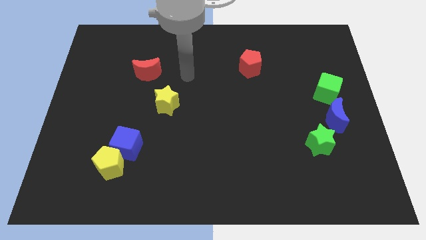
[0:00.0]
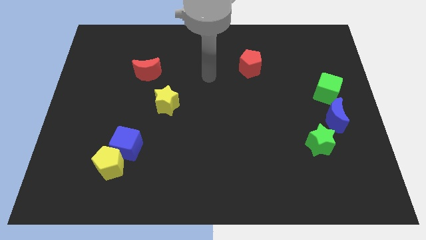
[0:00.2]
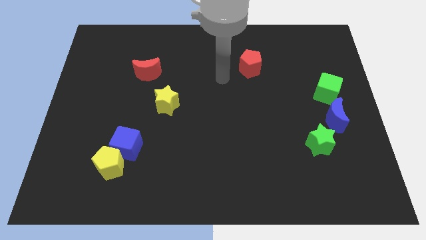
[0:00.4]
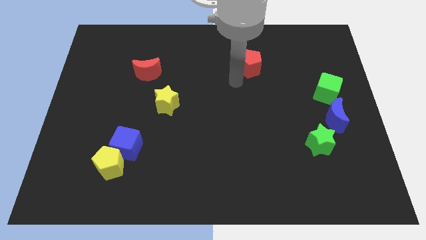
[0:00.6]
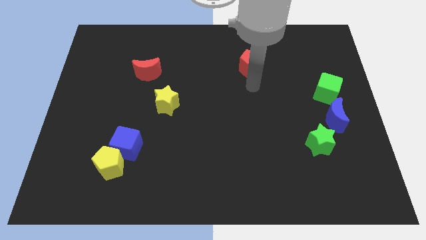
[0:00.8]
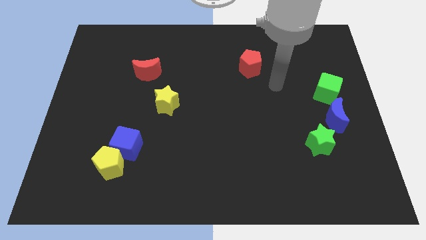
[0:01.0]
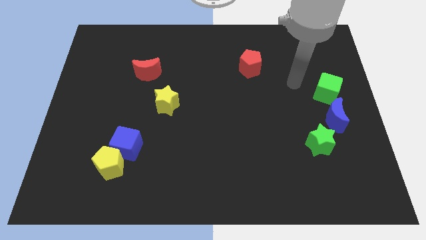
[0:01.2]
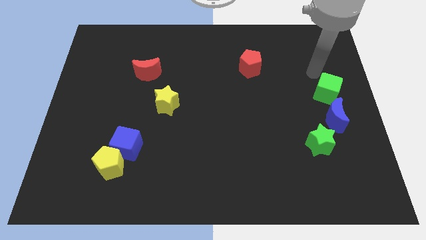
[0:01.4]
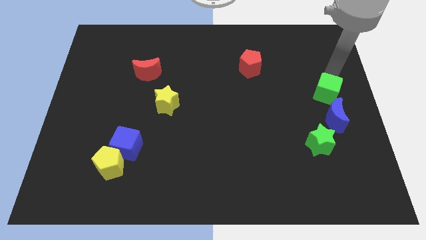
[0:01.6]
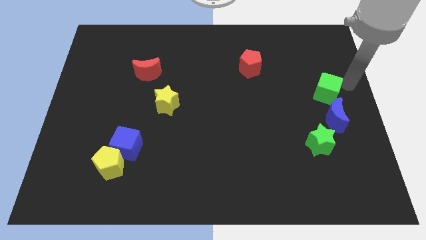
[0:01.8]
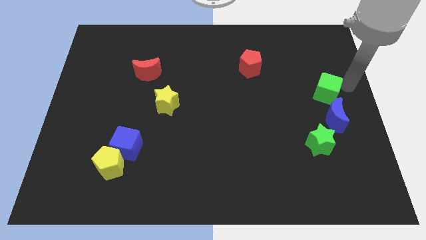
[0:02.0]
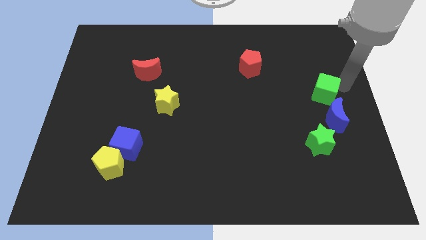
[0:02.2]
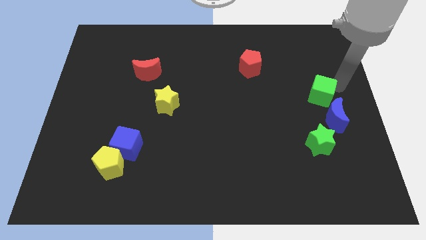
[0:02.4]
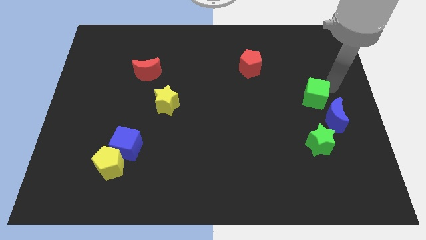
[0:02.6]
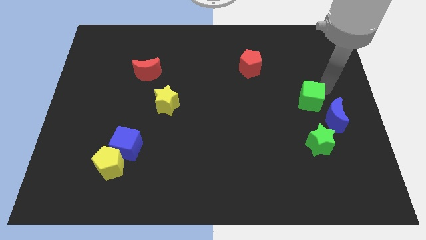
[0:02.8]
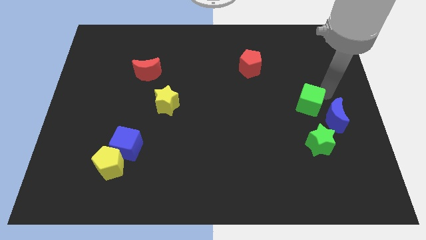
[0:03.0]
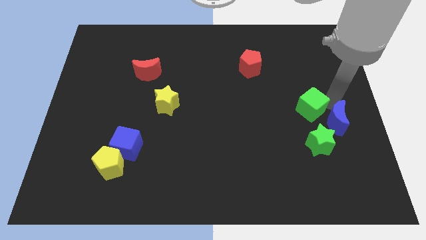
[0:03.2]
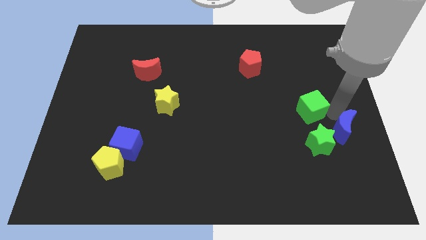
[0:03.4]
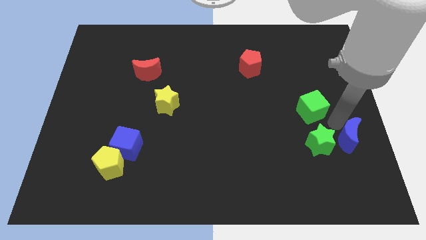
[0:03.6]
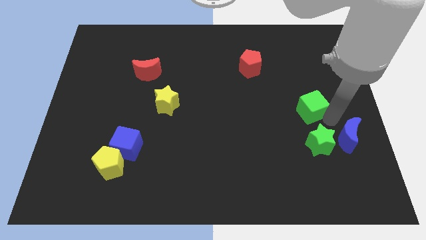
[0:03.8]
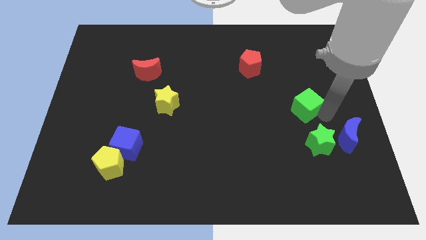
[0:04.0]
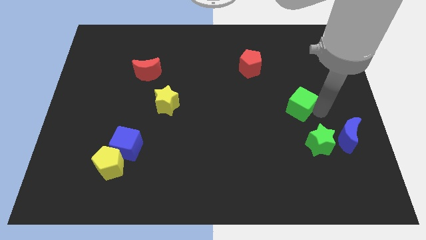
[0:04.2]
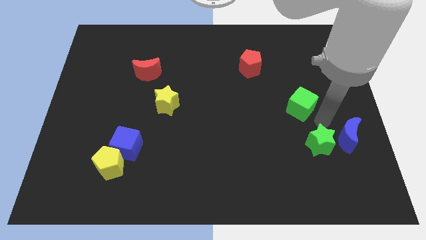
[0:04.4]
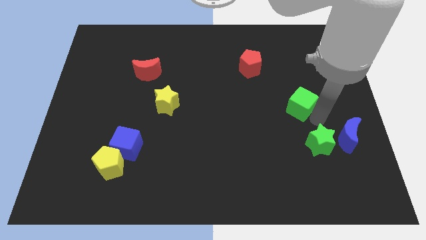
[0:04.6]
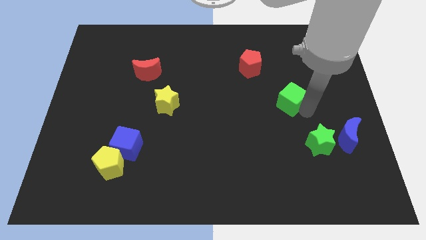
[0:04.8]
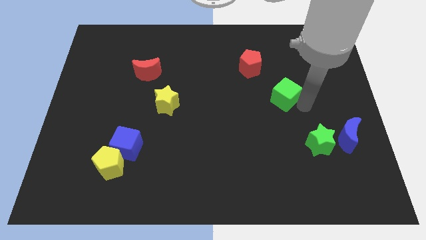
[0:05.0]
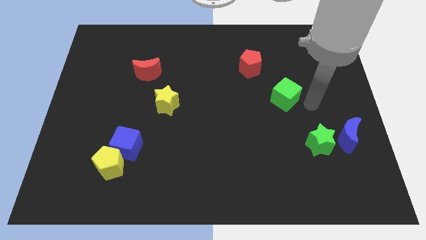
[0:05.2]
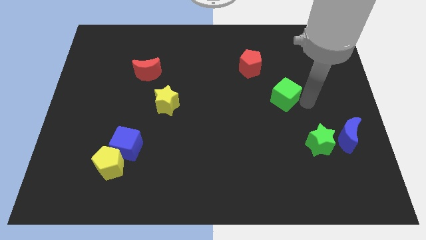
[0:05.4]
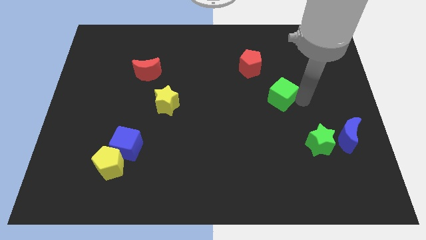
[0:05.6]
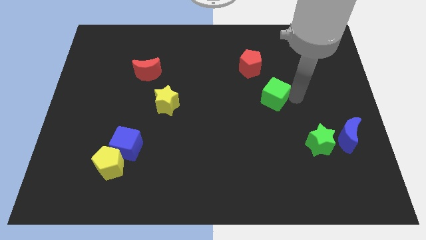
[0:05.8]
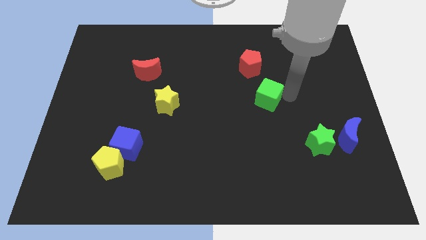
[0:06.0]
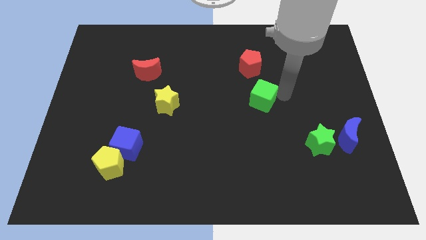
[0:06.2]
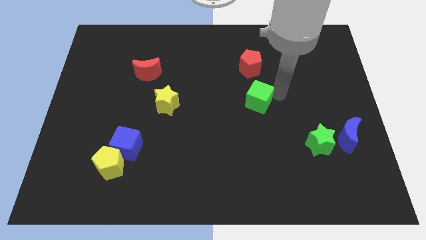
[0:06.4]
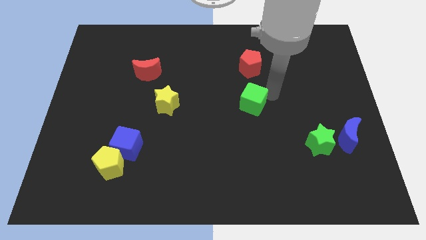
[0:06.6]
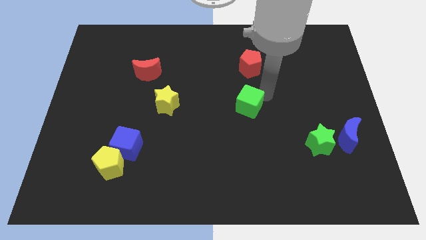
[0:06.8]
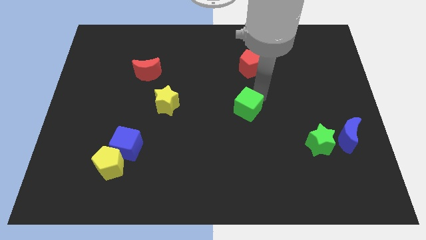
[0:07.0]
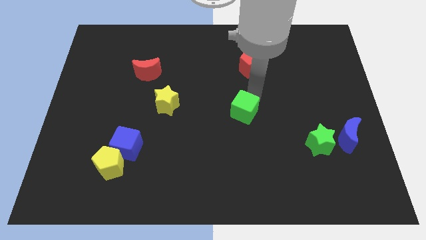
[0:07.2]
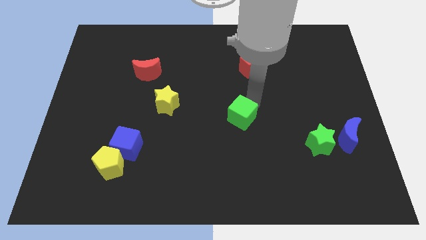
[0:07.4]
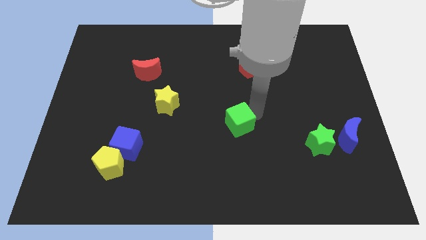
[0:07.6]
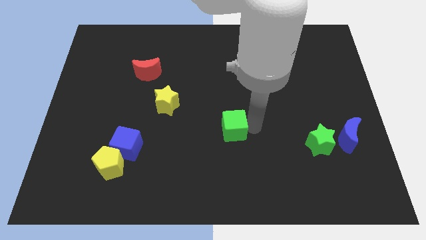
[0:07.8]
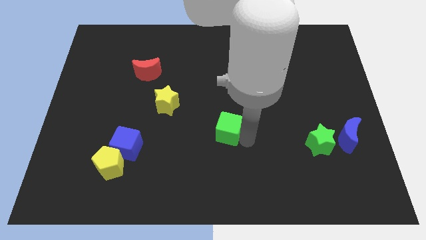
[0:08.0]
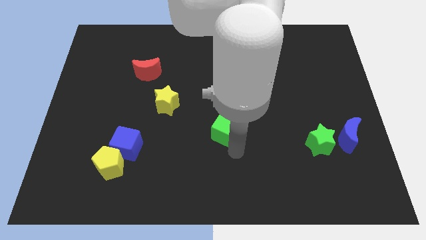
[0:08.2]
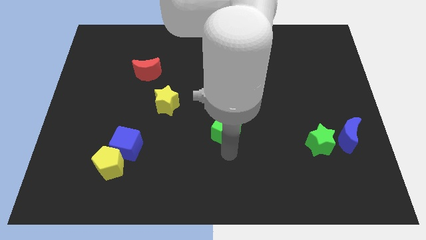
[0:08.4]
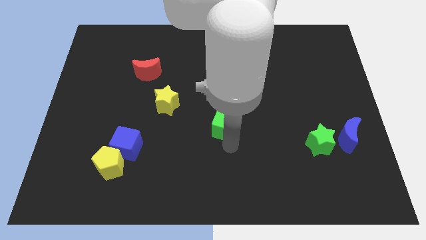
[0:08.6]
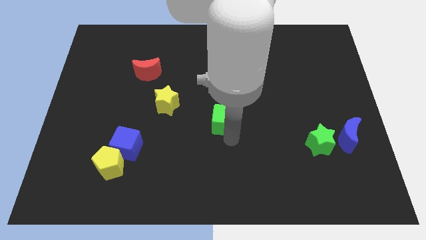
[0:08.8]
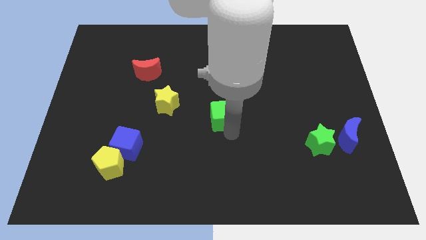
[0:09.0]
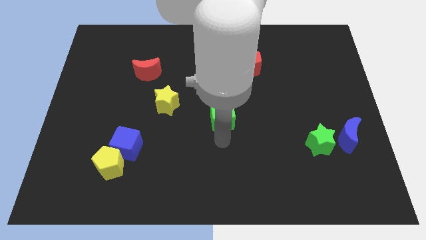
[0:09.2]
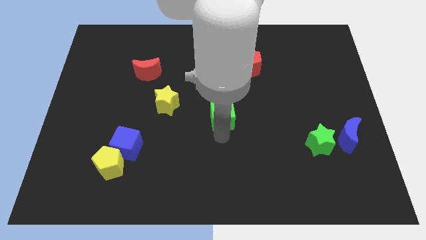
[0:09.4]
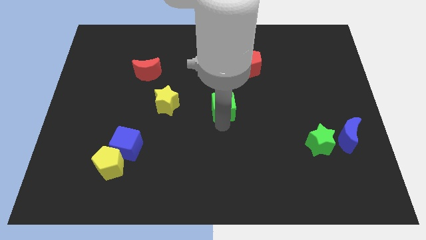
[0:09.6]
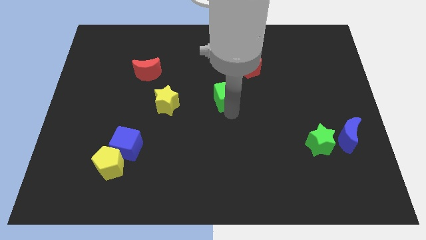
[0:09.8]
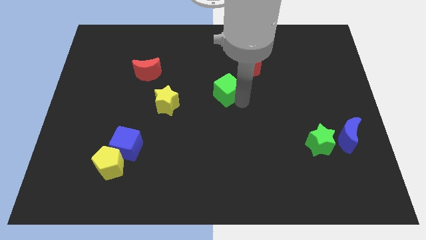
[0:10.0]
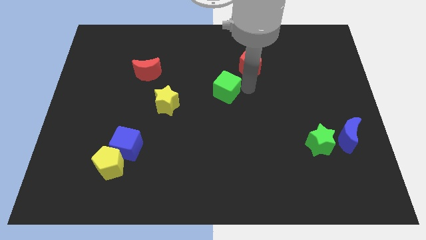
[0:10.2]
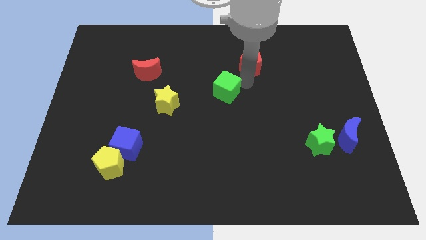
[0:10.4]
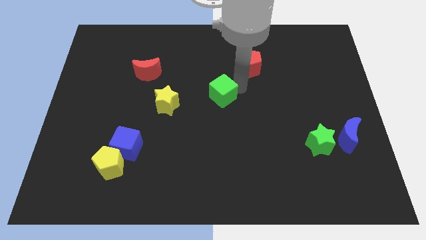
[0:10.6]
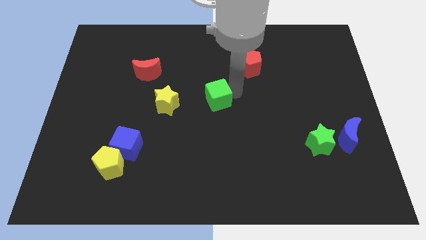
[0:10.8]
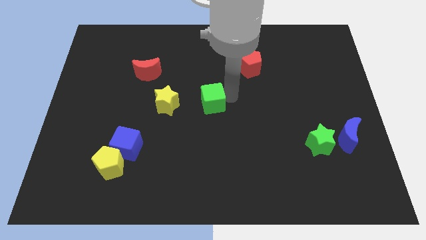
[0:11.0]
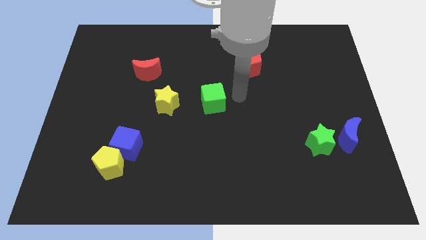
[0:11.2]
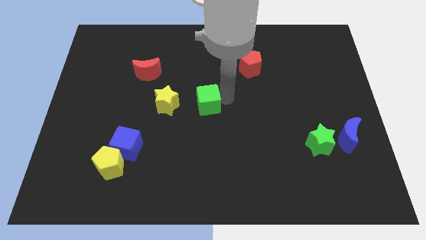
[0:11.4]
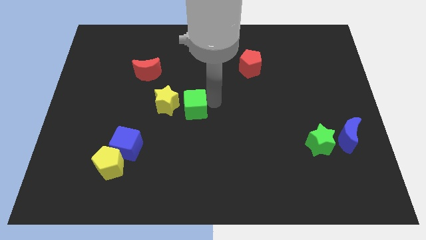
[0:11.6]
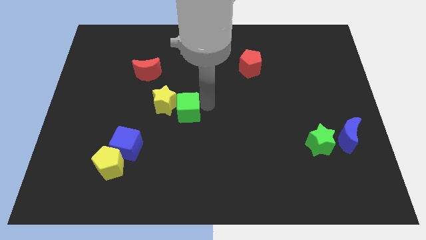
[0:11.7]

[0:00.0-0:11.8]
put the green cube to the yellow star

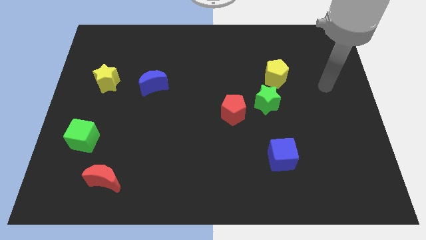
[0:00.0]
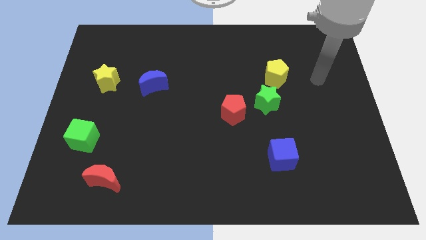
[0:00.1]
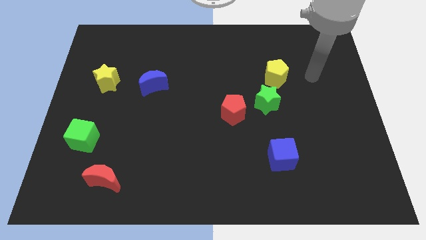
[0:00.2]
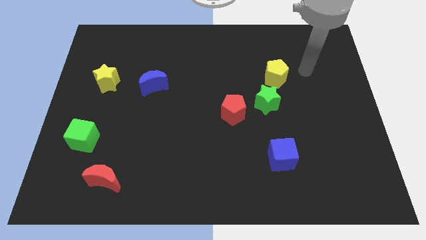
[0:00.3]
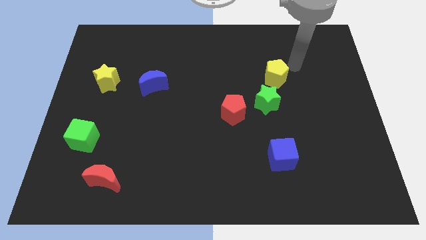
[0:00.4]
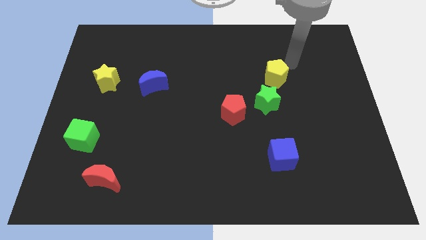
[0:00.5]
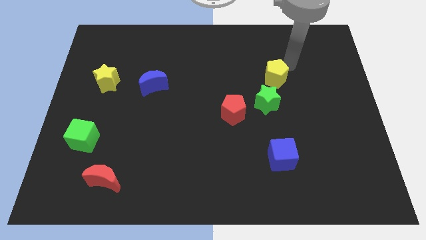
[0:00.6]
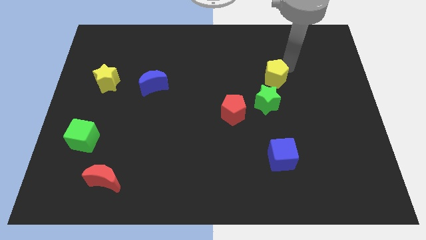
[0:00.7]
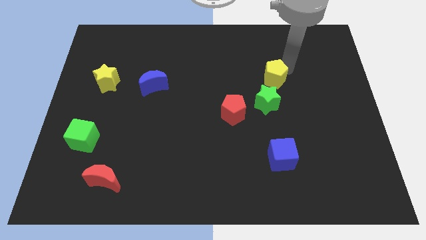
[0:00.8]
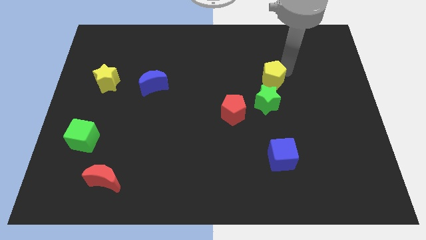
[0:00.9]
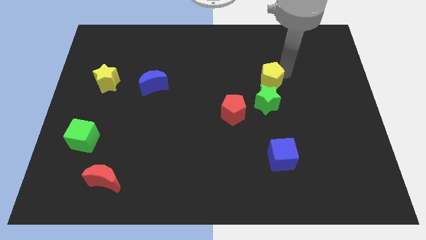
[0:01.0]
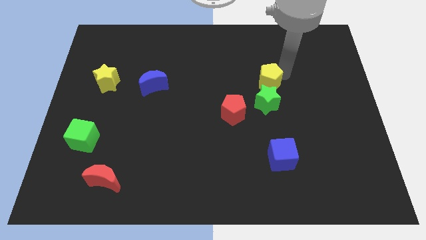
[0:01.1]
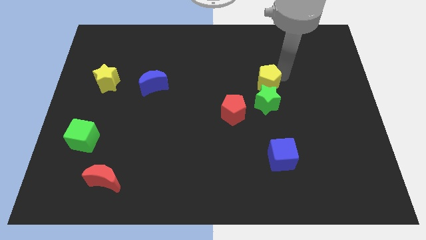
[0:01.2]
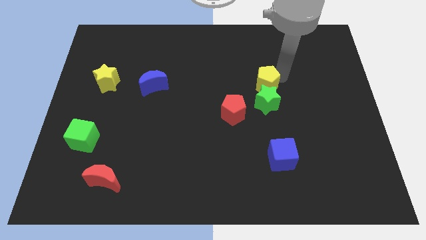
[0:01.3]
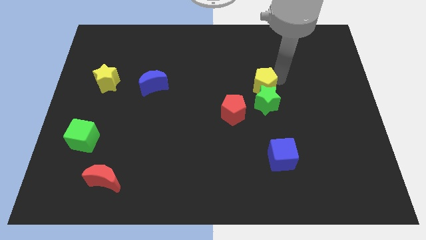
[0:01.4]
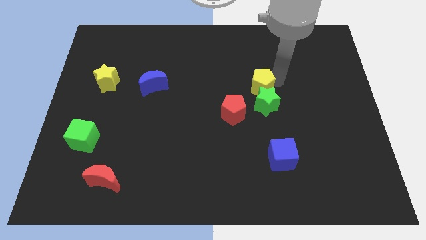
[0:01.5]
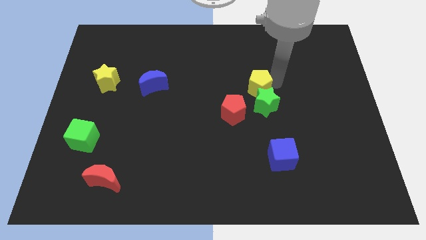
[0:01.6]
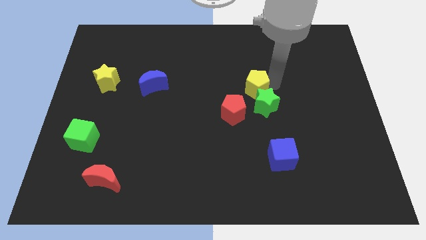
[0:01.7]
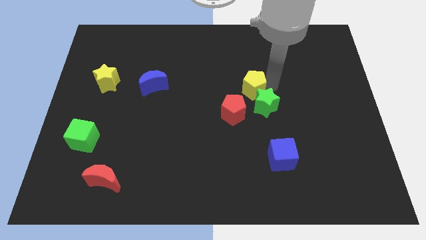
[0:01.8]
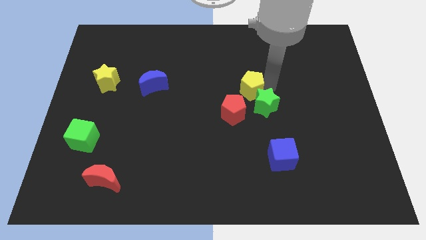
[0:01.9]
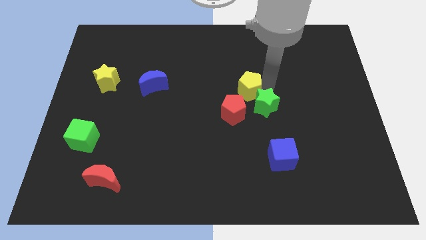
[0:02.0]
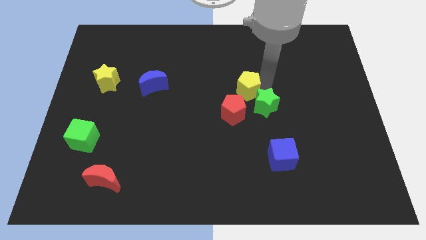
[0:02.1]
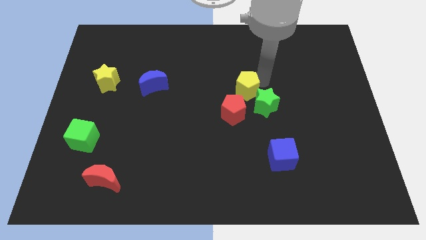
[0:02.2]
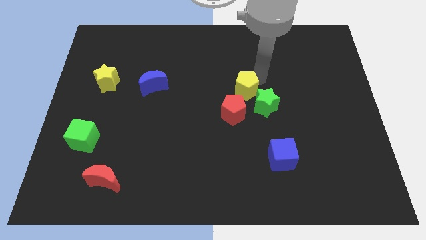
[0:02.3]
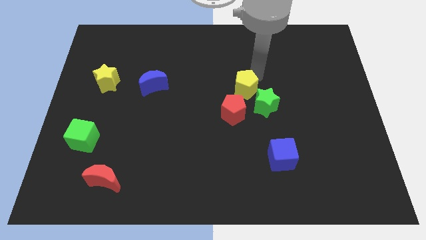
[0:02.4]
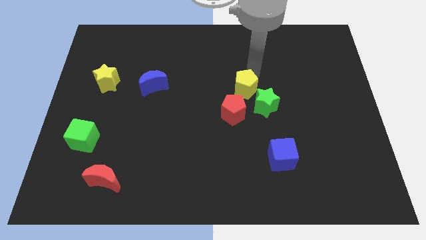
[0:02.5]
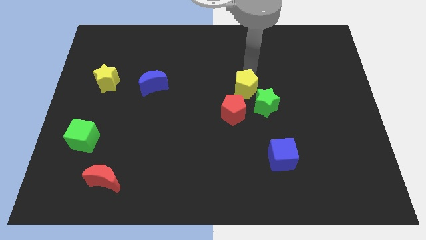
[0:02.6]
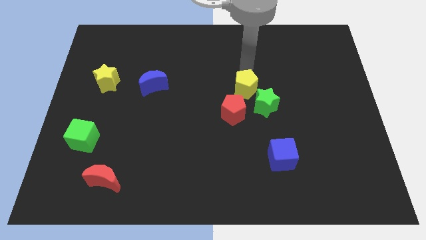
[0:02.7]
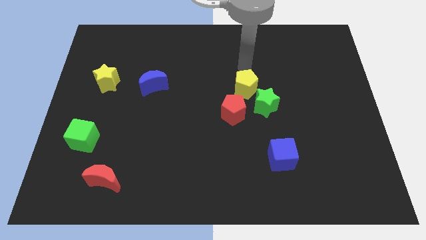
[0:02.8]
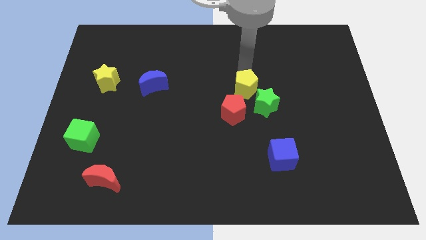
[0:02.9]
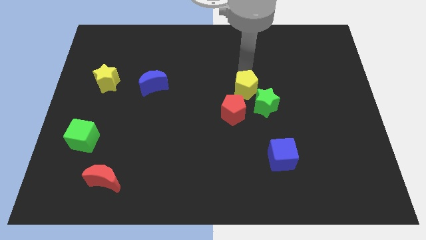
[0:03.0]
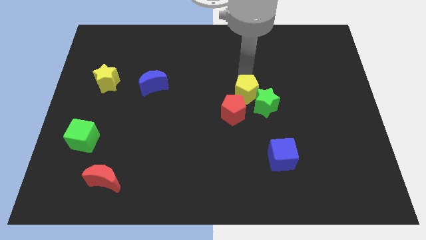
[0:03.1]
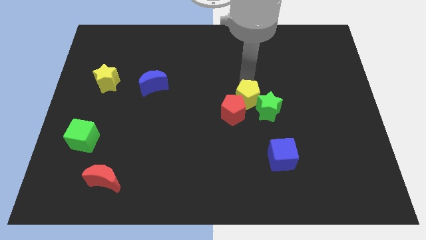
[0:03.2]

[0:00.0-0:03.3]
push the yellow pentagon towards the red pentagon
